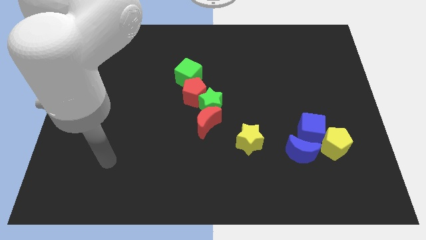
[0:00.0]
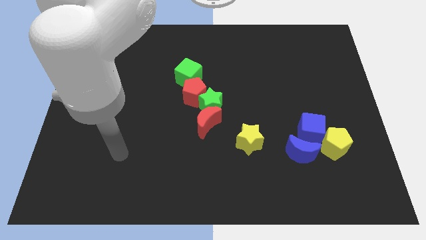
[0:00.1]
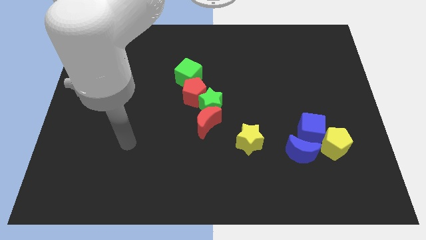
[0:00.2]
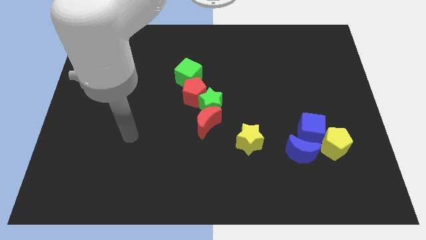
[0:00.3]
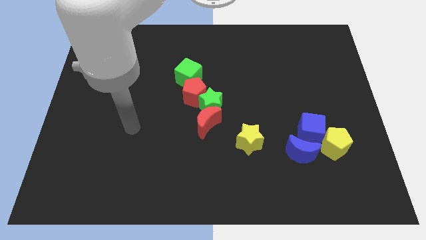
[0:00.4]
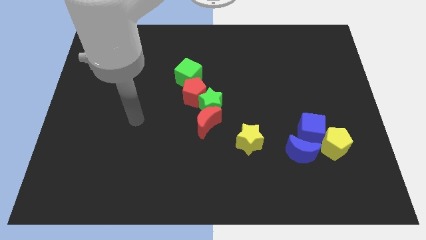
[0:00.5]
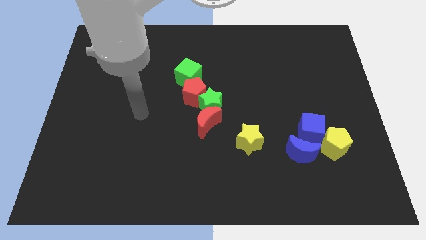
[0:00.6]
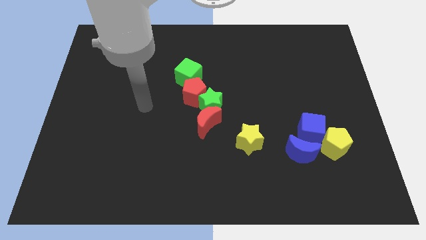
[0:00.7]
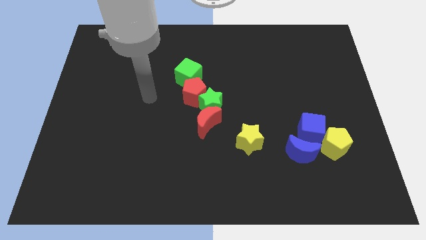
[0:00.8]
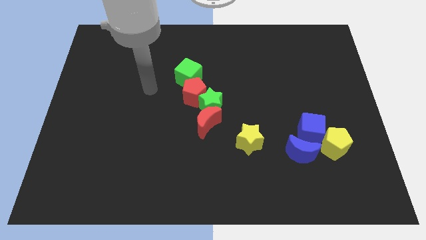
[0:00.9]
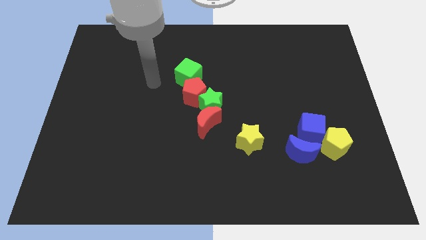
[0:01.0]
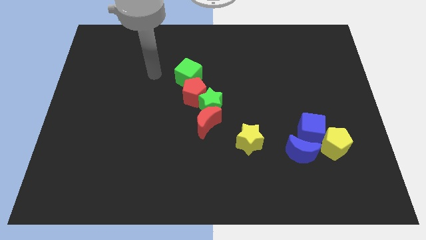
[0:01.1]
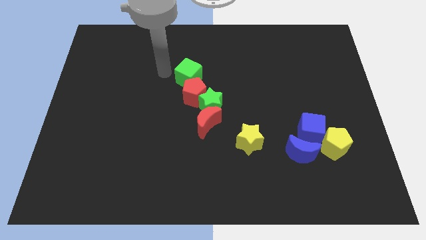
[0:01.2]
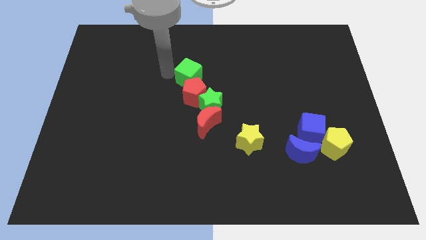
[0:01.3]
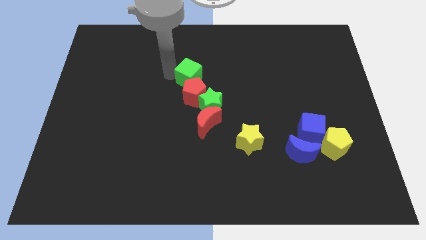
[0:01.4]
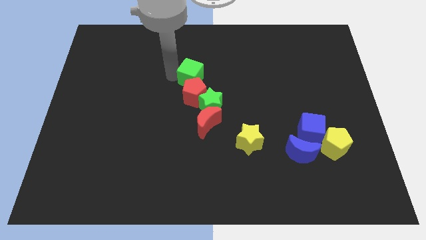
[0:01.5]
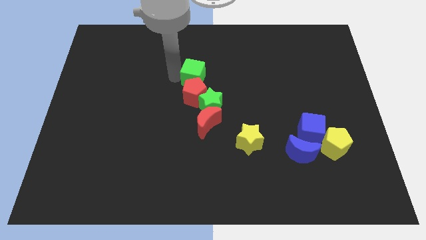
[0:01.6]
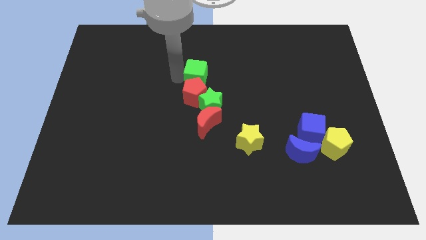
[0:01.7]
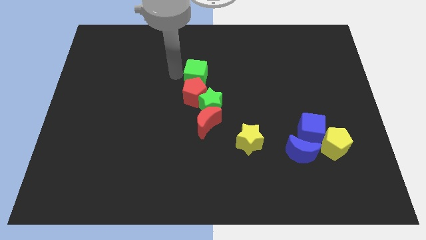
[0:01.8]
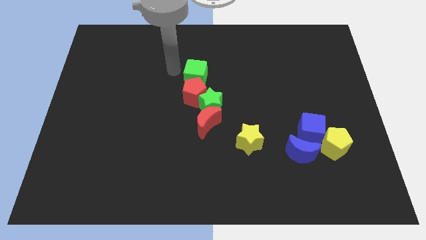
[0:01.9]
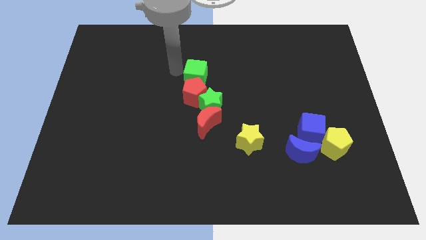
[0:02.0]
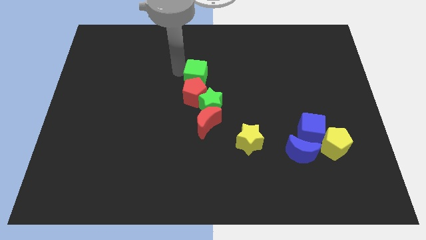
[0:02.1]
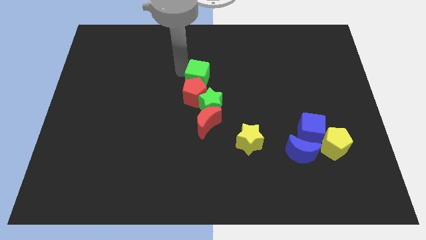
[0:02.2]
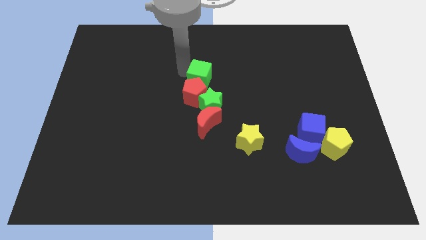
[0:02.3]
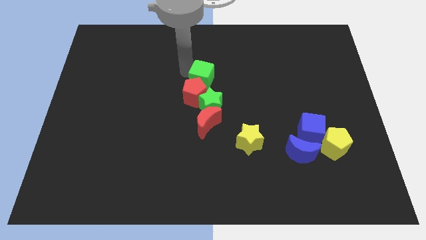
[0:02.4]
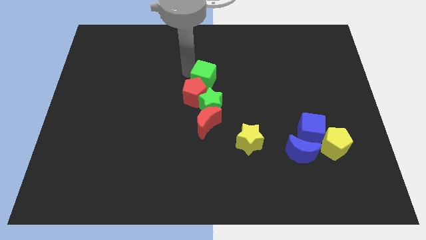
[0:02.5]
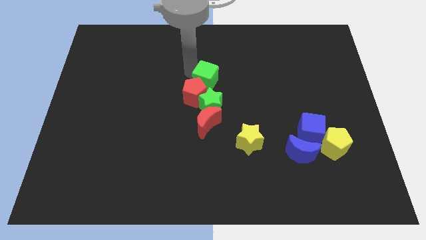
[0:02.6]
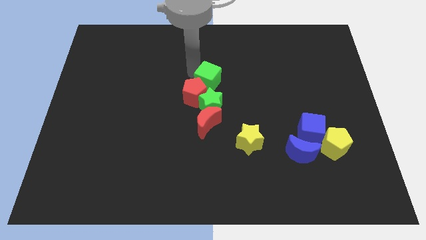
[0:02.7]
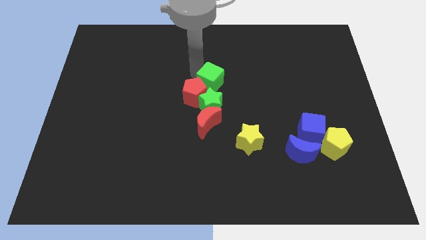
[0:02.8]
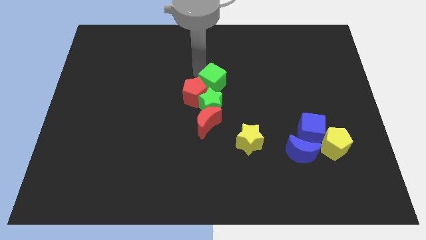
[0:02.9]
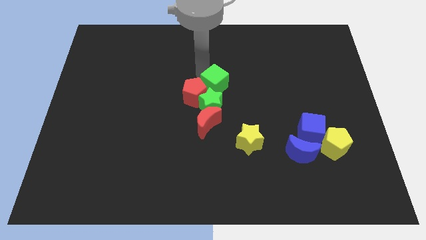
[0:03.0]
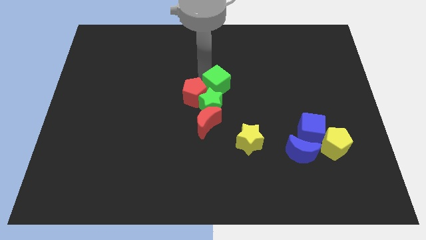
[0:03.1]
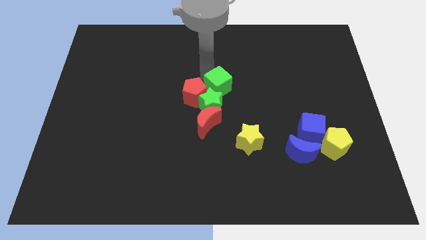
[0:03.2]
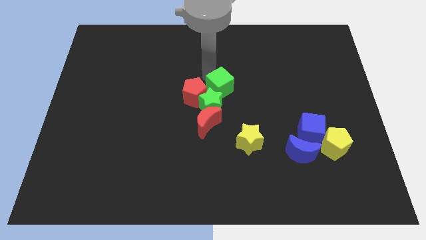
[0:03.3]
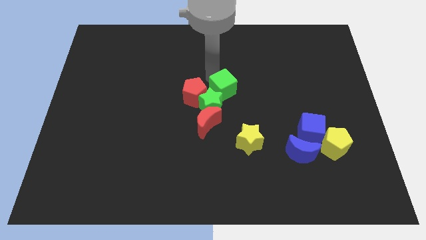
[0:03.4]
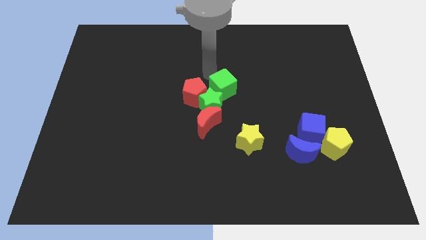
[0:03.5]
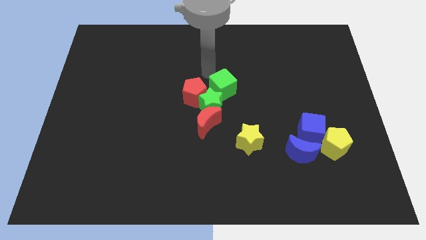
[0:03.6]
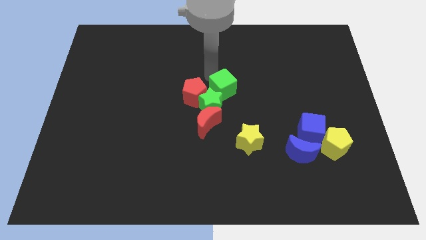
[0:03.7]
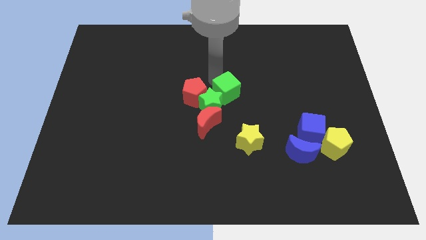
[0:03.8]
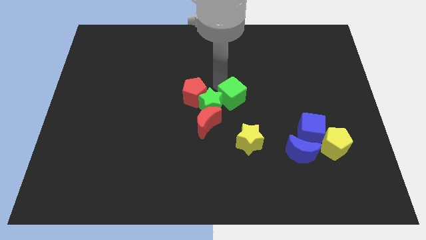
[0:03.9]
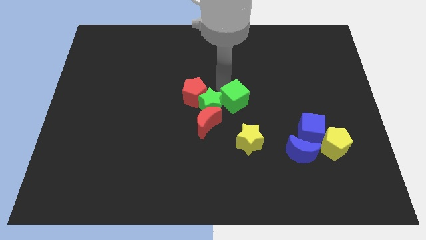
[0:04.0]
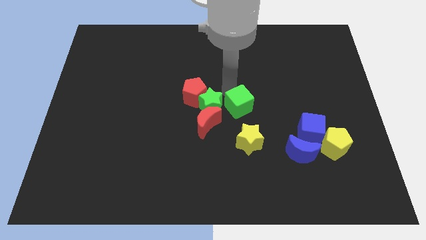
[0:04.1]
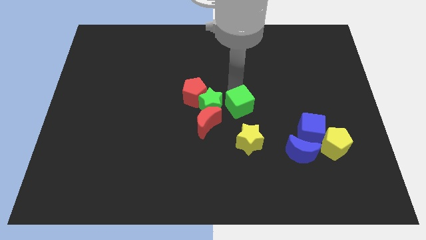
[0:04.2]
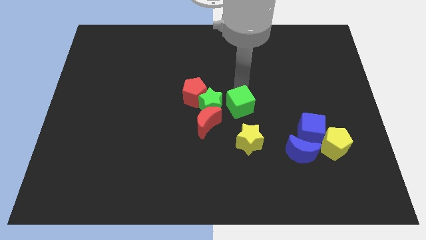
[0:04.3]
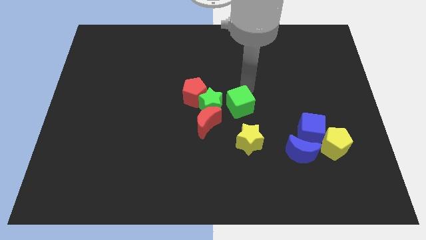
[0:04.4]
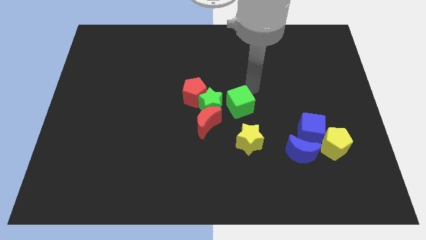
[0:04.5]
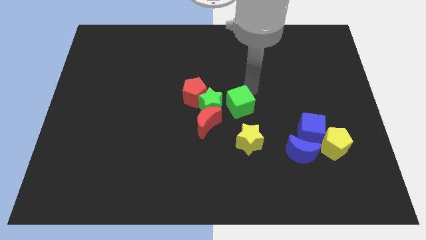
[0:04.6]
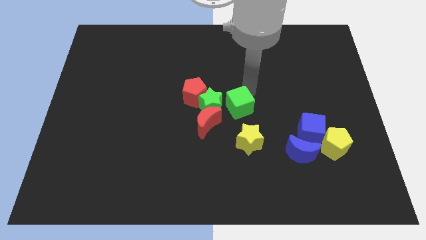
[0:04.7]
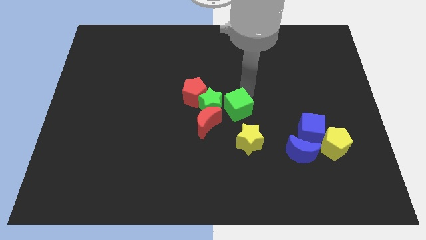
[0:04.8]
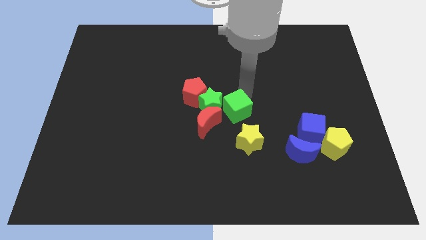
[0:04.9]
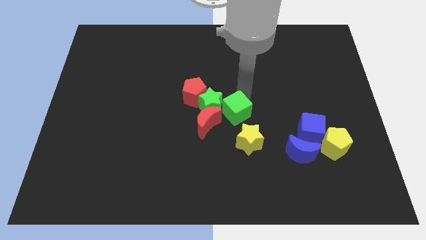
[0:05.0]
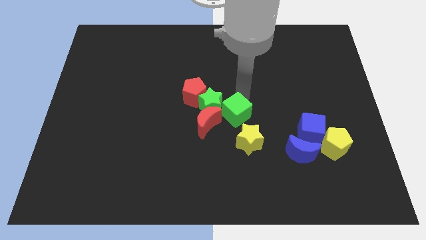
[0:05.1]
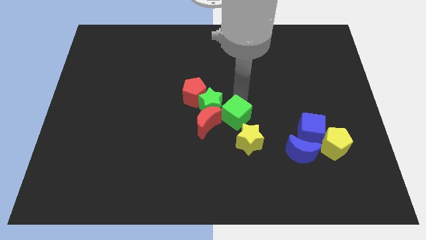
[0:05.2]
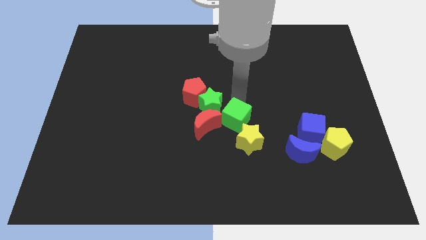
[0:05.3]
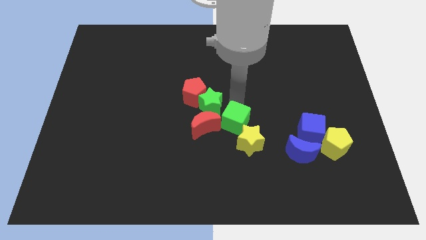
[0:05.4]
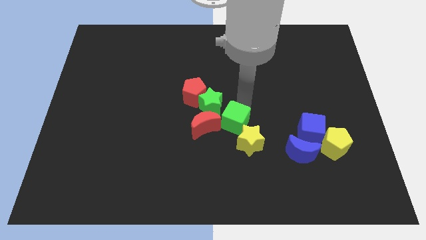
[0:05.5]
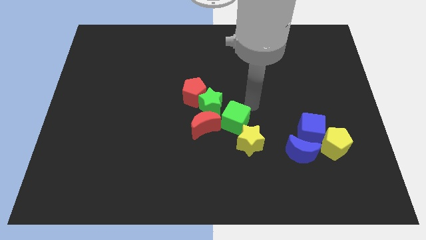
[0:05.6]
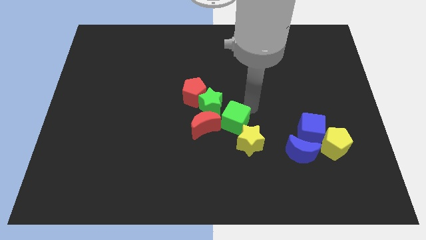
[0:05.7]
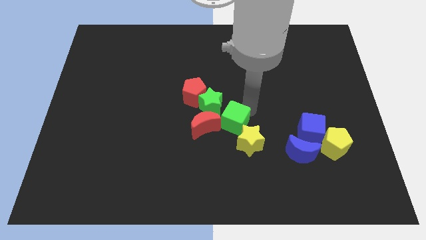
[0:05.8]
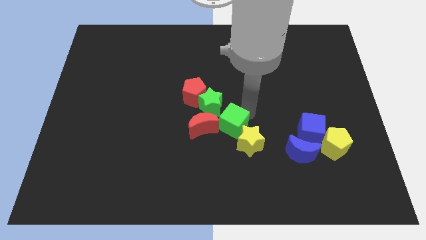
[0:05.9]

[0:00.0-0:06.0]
move the green cube to the bottom side of the green star

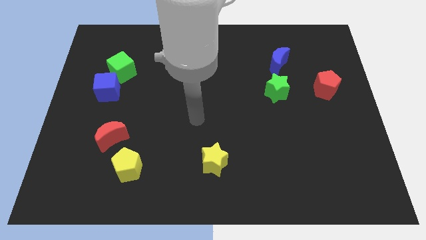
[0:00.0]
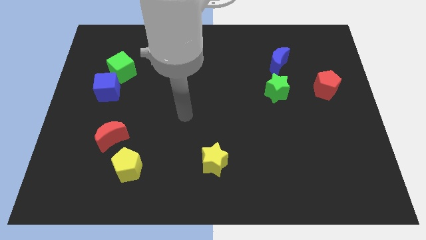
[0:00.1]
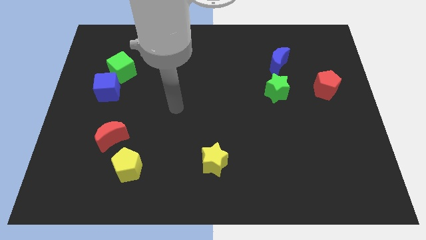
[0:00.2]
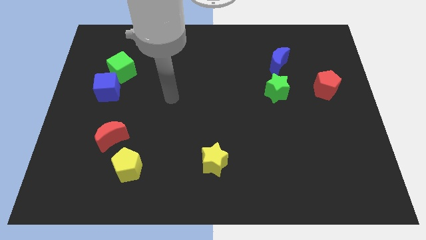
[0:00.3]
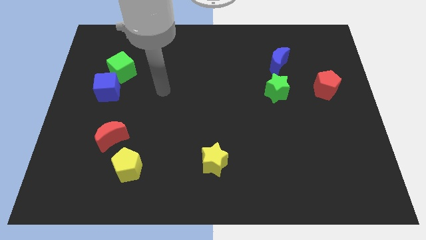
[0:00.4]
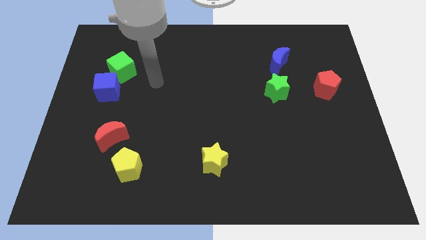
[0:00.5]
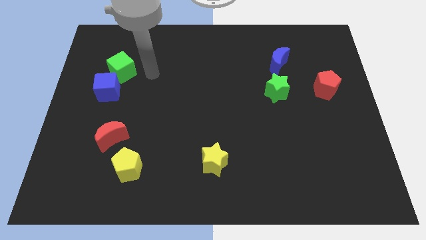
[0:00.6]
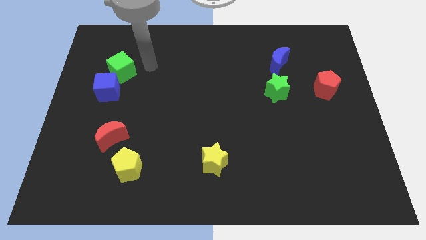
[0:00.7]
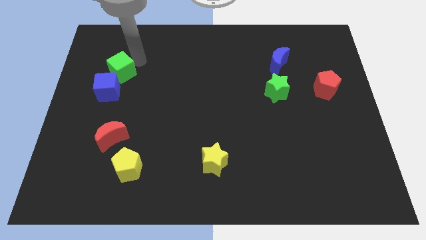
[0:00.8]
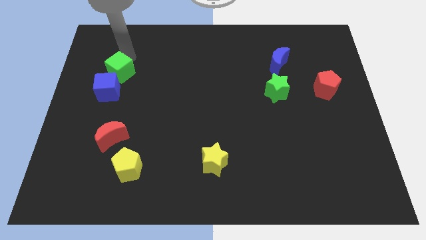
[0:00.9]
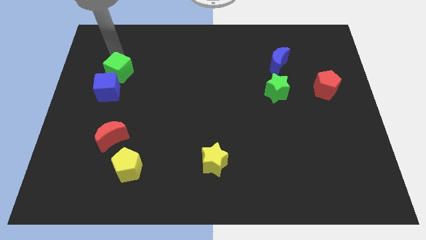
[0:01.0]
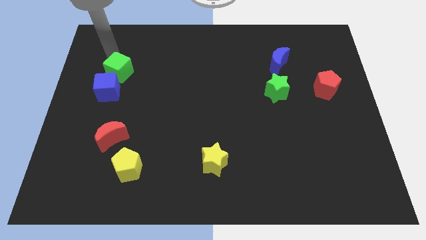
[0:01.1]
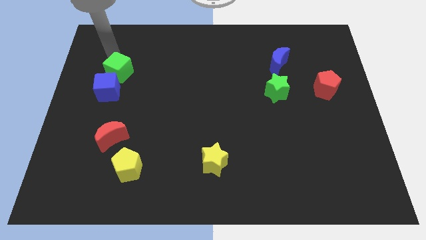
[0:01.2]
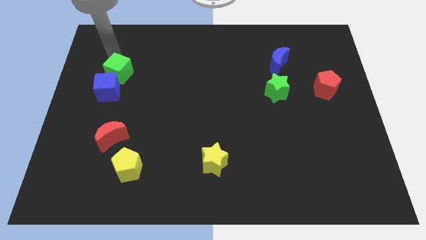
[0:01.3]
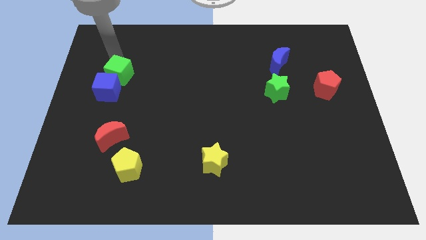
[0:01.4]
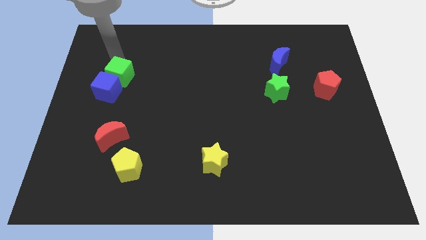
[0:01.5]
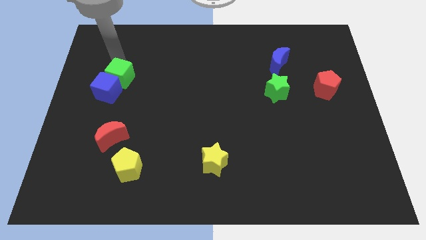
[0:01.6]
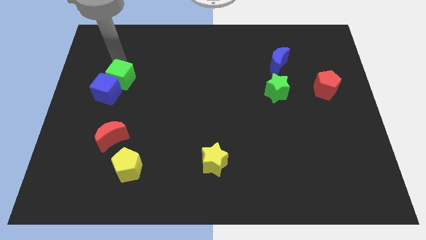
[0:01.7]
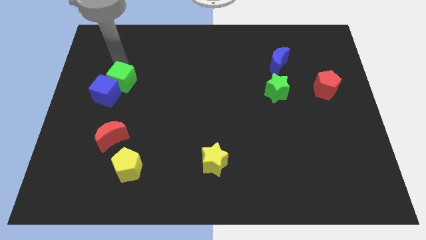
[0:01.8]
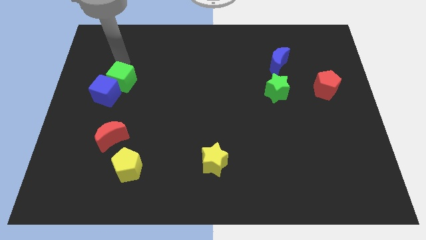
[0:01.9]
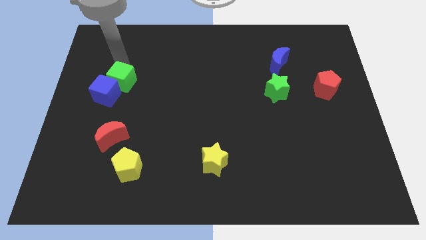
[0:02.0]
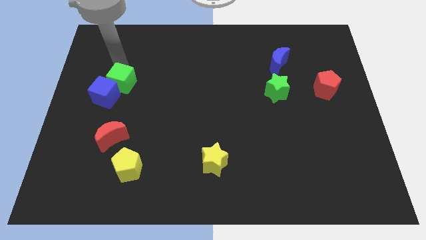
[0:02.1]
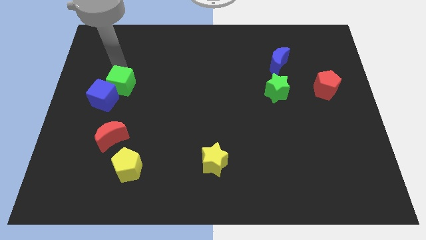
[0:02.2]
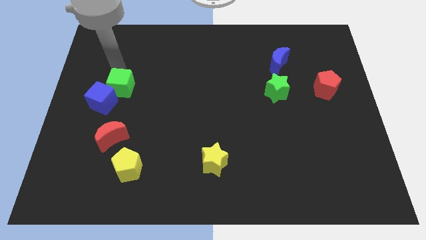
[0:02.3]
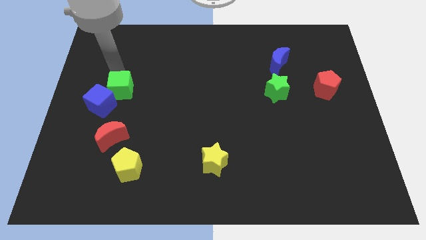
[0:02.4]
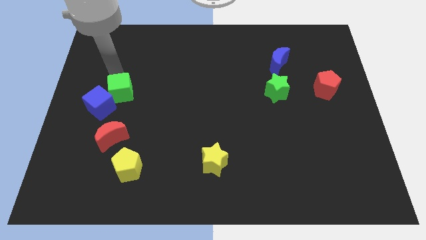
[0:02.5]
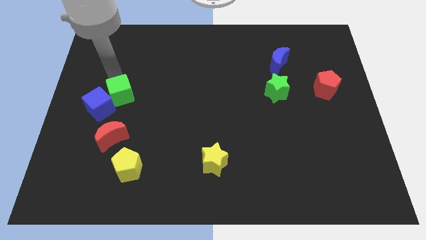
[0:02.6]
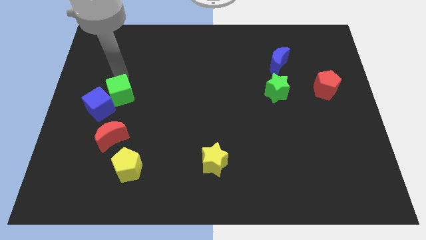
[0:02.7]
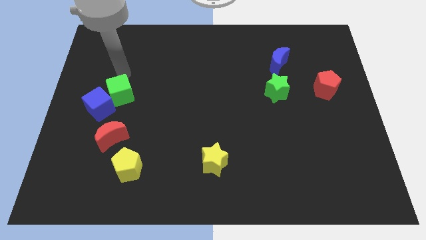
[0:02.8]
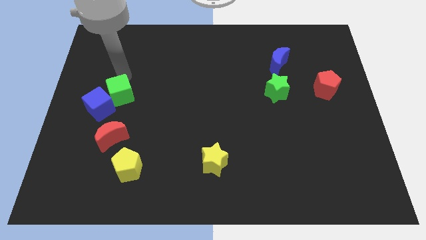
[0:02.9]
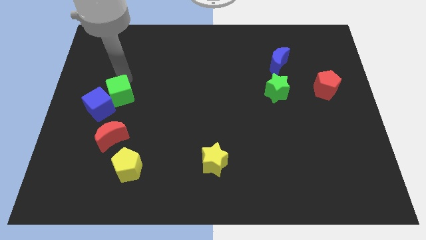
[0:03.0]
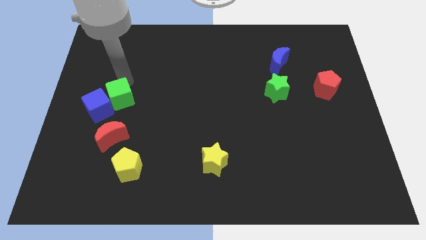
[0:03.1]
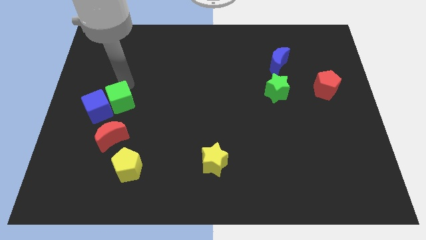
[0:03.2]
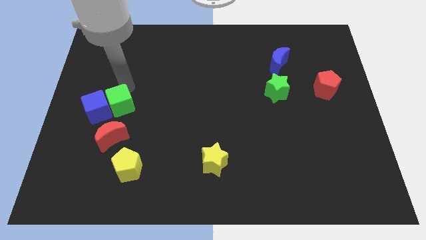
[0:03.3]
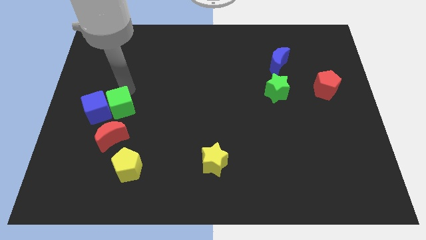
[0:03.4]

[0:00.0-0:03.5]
push the green cube to the bottom right side of the blue cube
